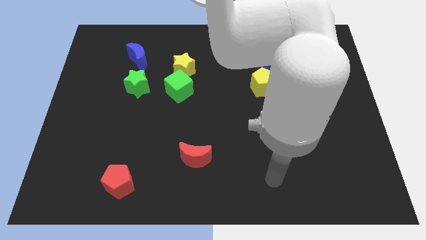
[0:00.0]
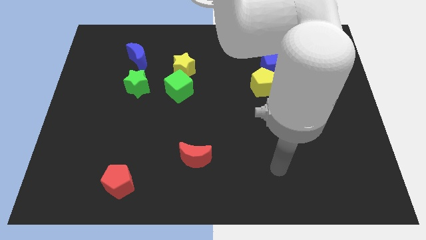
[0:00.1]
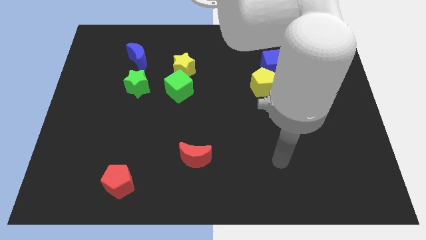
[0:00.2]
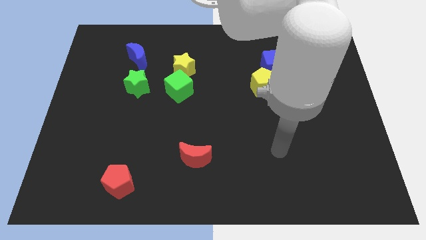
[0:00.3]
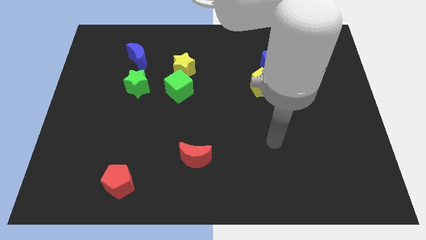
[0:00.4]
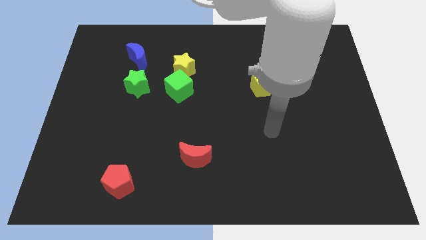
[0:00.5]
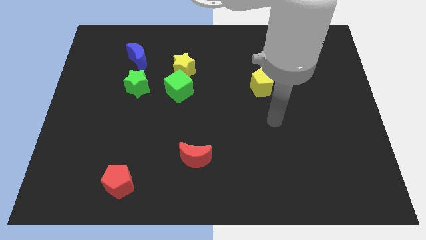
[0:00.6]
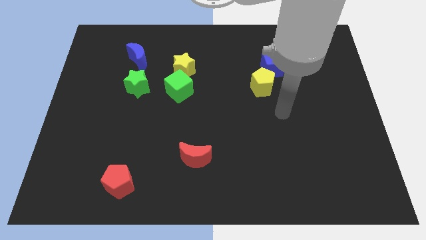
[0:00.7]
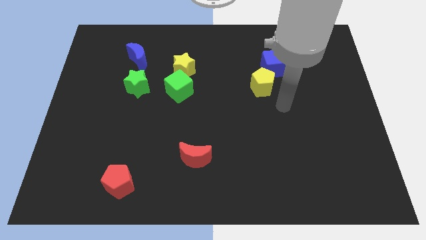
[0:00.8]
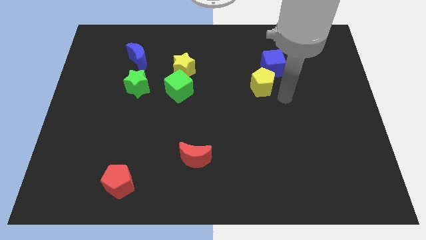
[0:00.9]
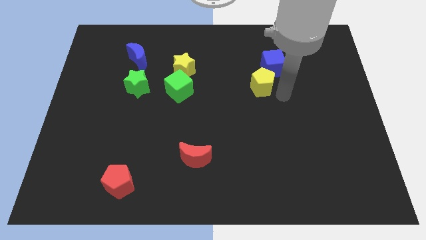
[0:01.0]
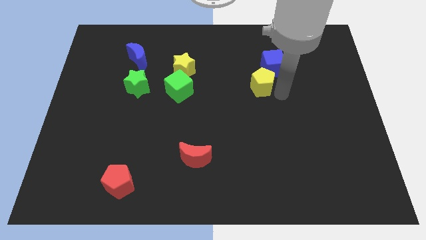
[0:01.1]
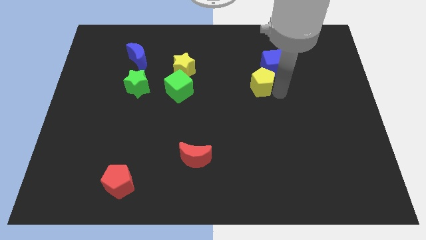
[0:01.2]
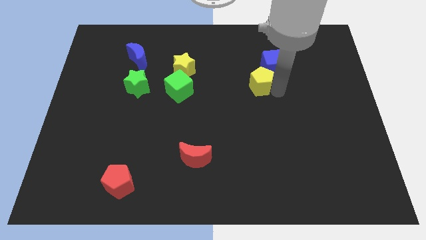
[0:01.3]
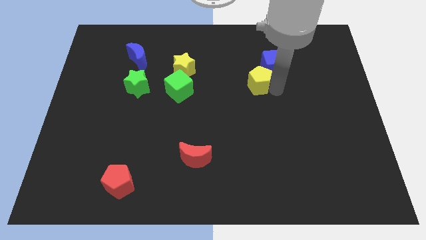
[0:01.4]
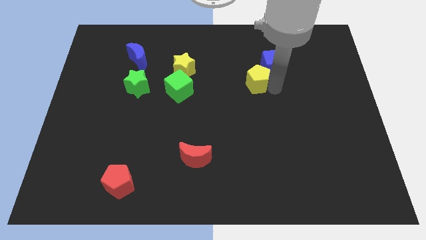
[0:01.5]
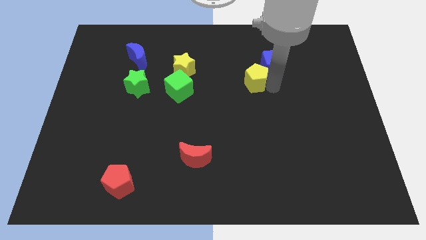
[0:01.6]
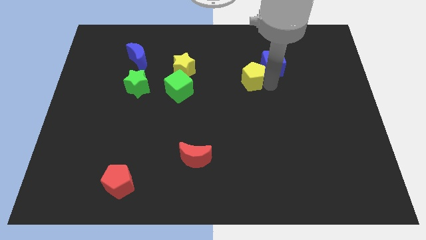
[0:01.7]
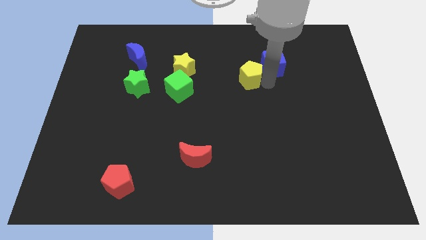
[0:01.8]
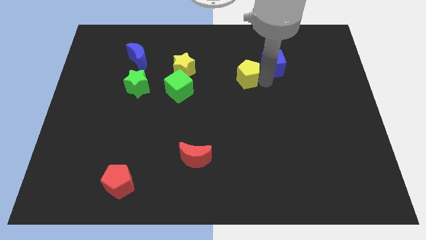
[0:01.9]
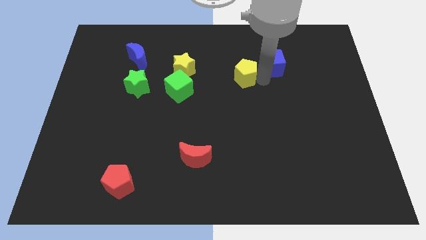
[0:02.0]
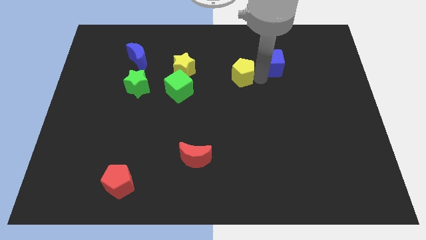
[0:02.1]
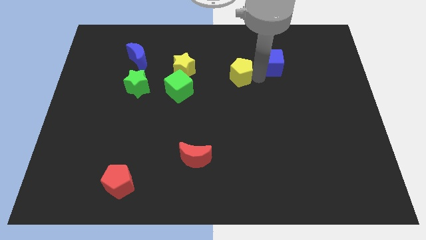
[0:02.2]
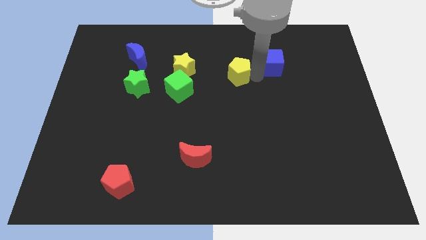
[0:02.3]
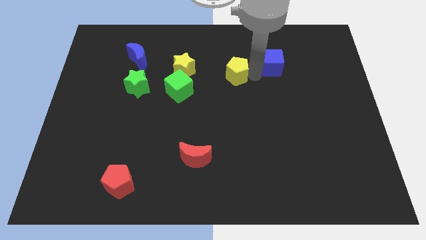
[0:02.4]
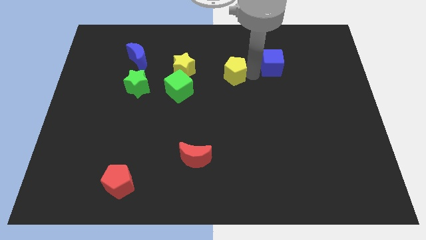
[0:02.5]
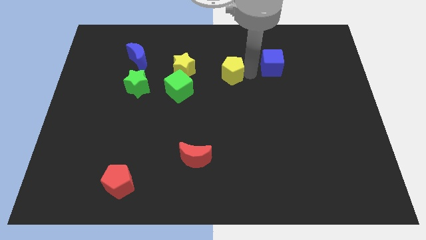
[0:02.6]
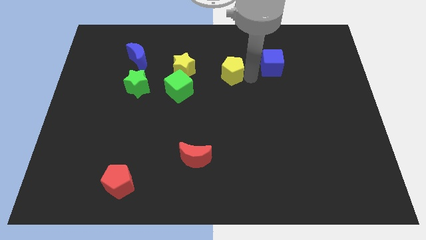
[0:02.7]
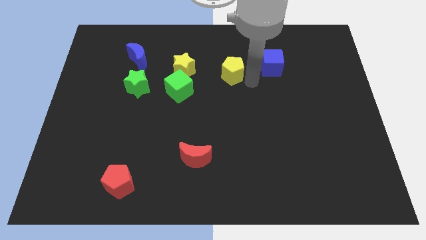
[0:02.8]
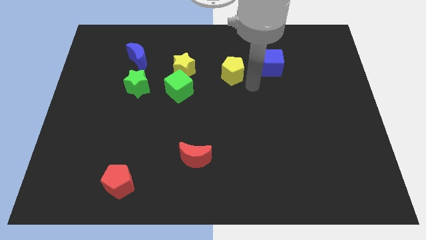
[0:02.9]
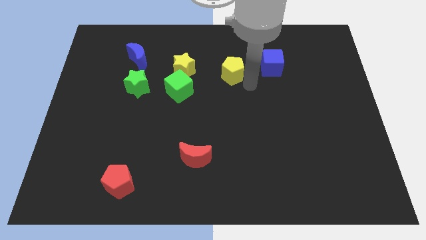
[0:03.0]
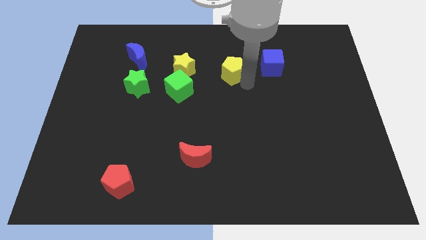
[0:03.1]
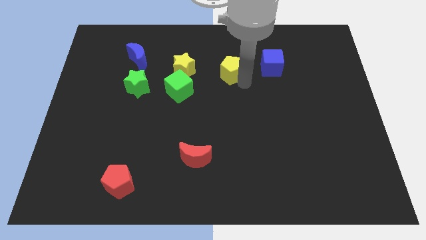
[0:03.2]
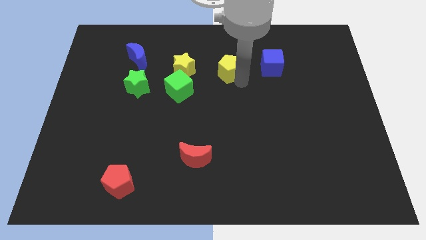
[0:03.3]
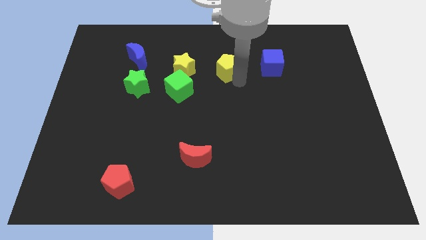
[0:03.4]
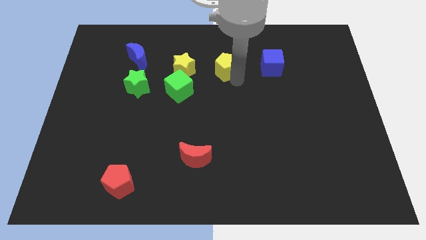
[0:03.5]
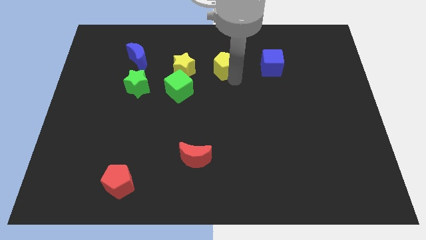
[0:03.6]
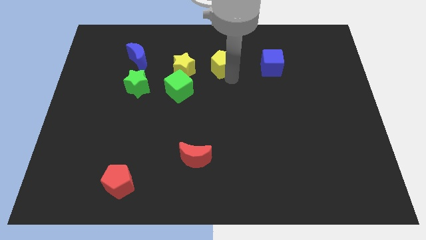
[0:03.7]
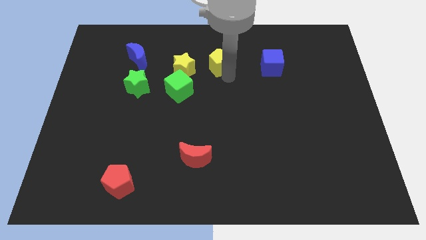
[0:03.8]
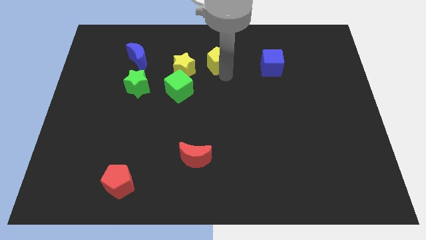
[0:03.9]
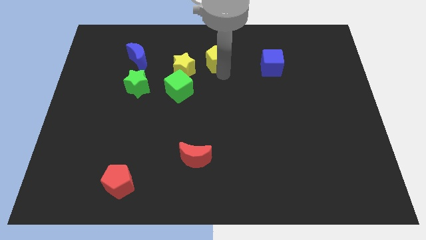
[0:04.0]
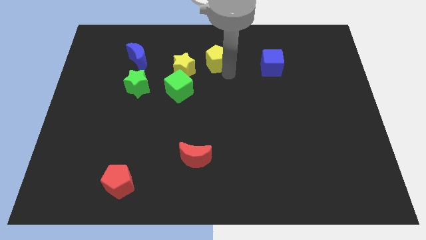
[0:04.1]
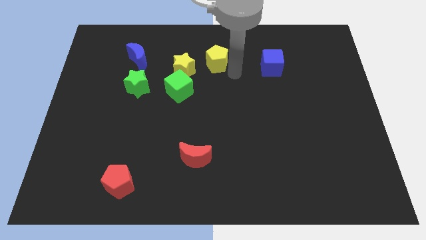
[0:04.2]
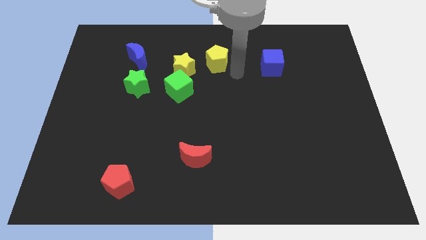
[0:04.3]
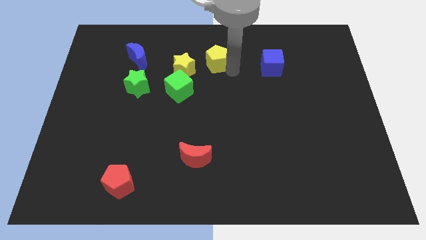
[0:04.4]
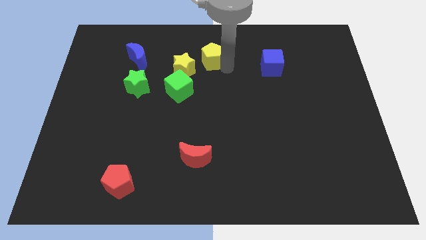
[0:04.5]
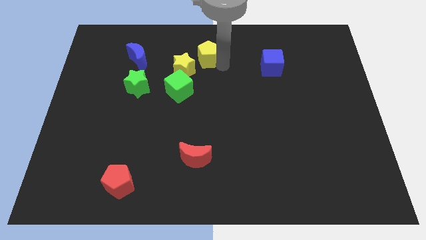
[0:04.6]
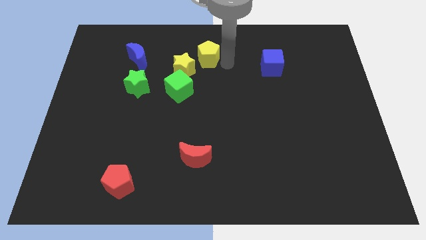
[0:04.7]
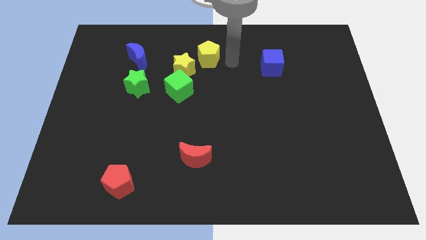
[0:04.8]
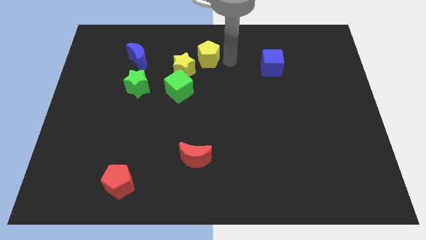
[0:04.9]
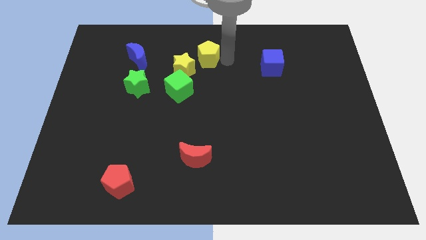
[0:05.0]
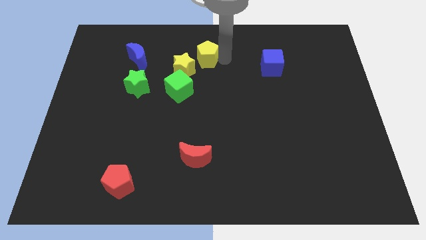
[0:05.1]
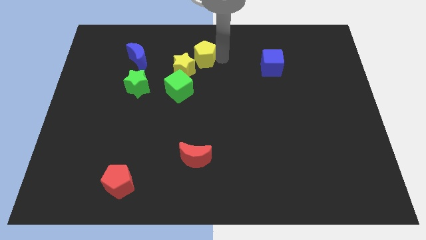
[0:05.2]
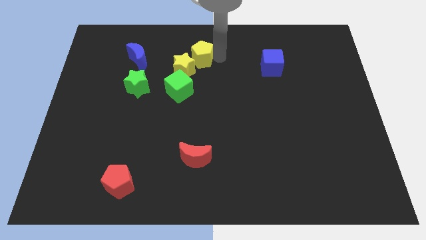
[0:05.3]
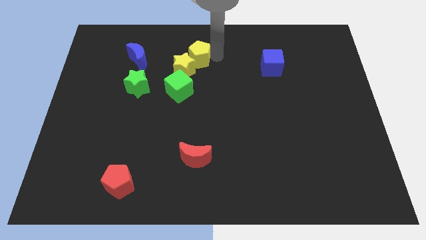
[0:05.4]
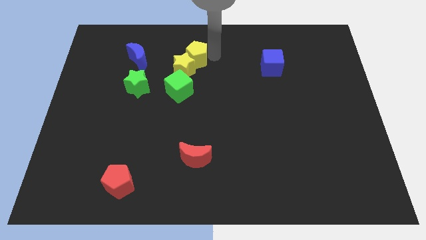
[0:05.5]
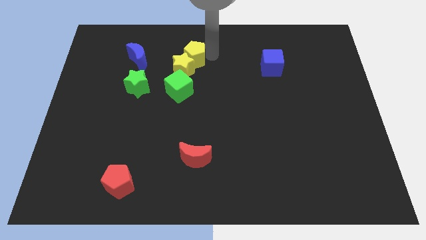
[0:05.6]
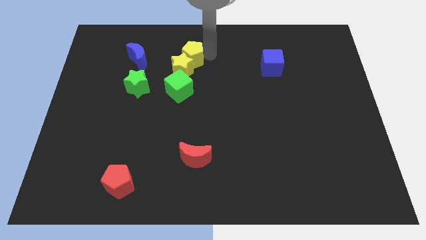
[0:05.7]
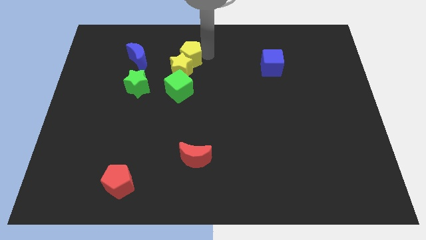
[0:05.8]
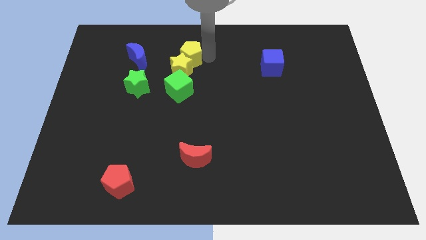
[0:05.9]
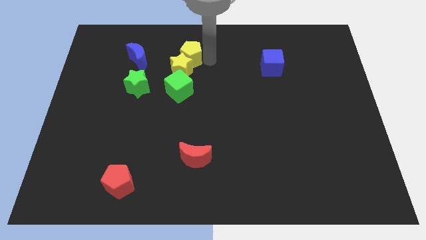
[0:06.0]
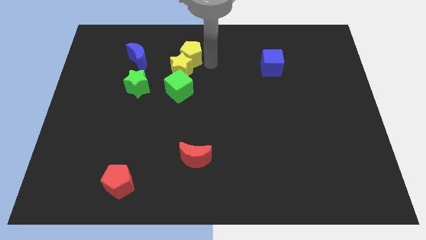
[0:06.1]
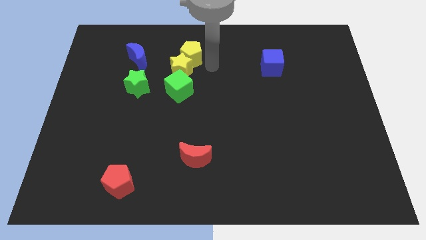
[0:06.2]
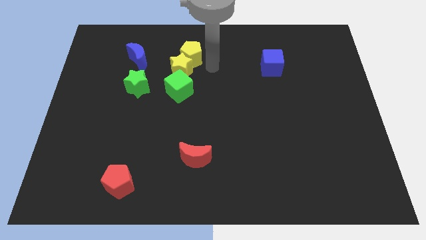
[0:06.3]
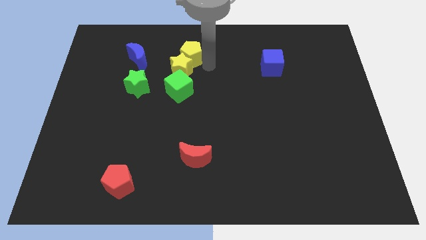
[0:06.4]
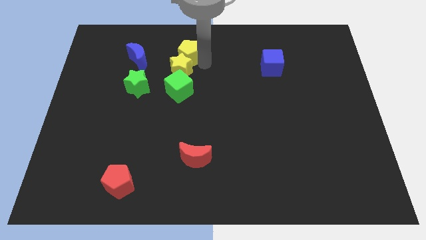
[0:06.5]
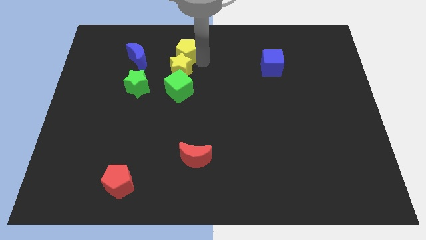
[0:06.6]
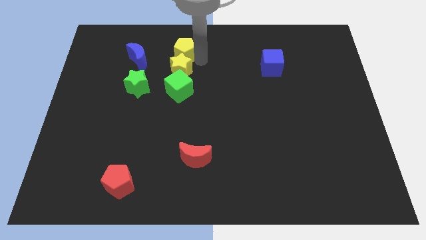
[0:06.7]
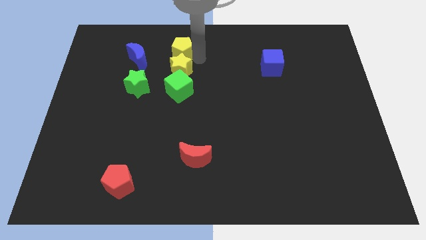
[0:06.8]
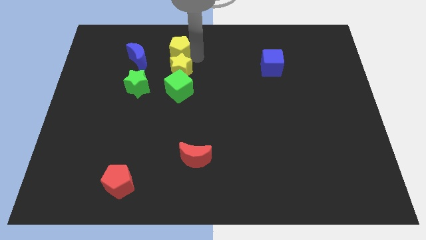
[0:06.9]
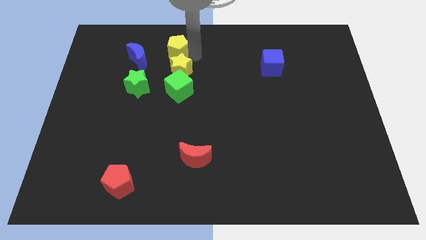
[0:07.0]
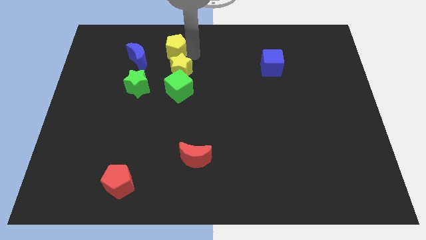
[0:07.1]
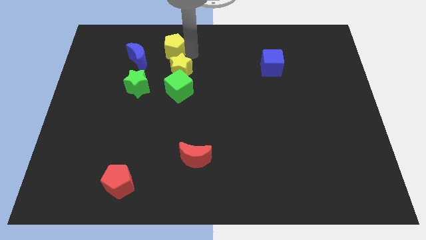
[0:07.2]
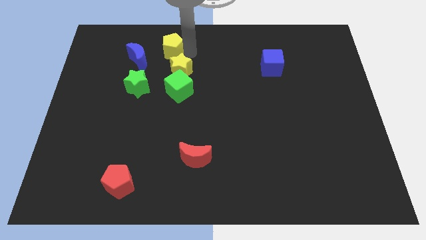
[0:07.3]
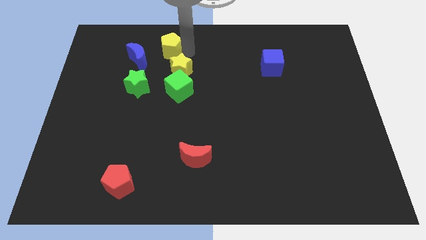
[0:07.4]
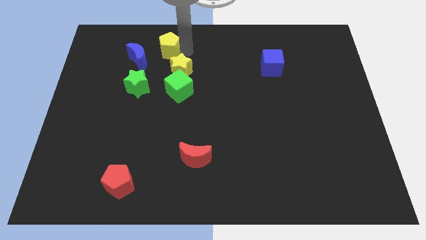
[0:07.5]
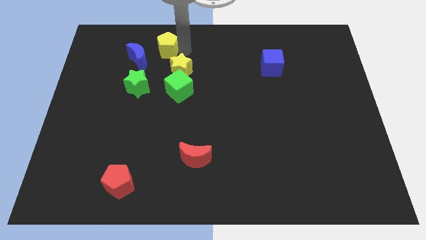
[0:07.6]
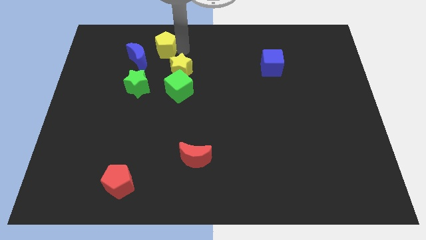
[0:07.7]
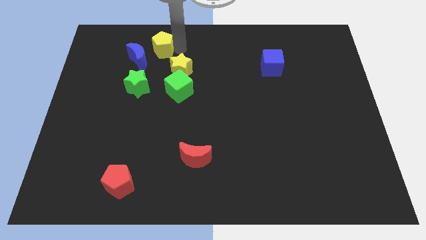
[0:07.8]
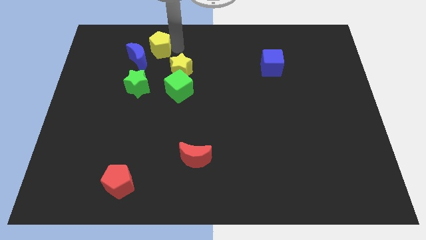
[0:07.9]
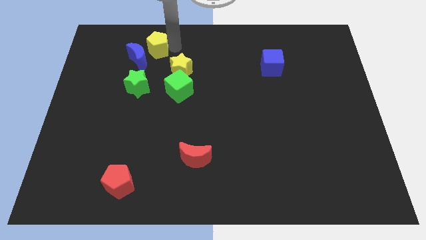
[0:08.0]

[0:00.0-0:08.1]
slide the yellow pentagon close to the blue moon
